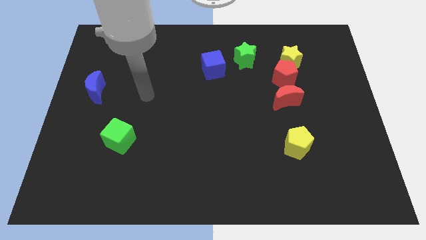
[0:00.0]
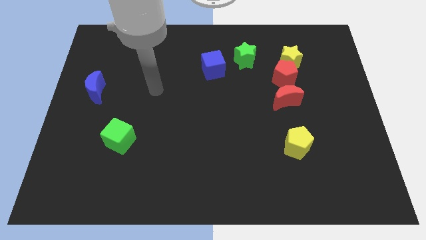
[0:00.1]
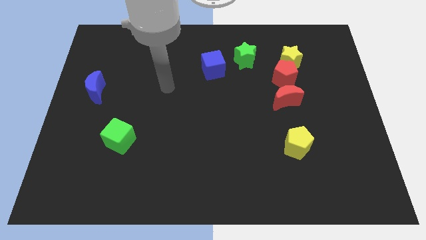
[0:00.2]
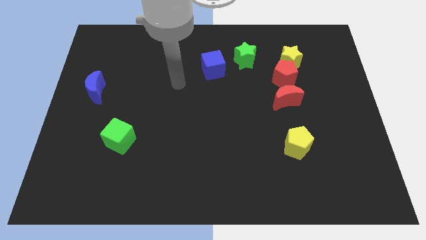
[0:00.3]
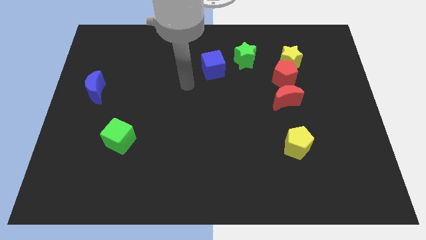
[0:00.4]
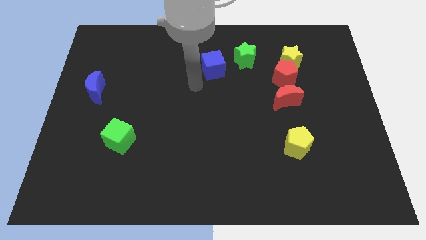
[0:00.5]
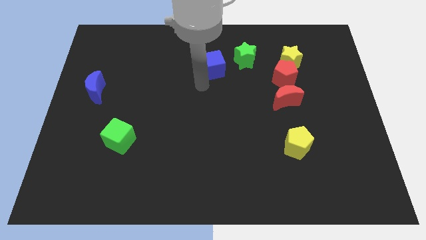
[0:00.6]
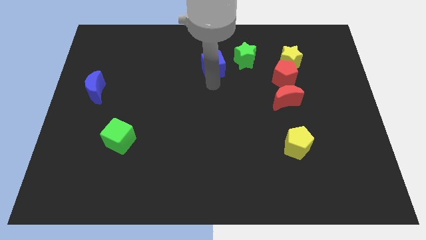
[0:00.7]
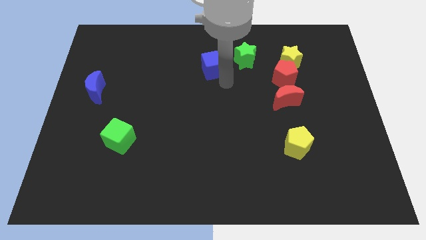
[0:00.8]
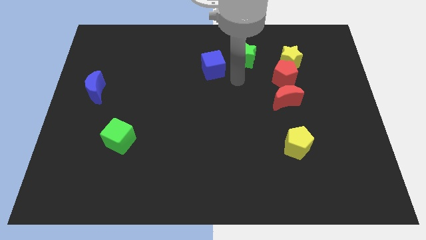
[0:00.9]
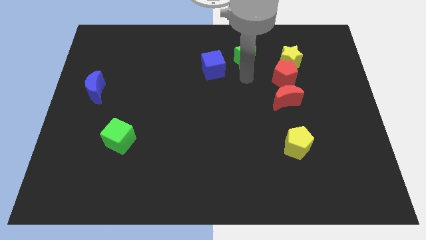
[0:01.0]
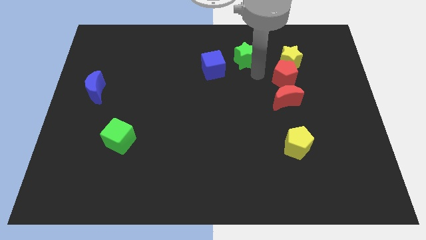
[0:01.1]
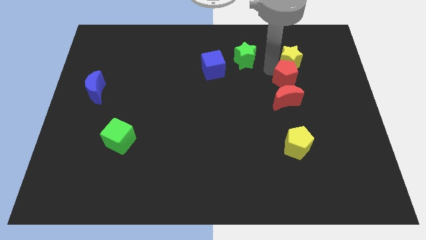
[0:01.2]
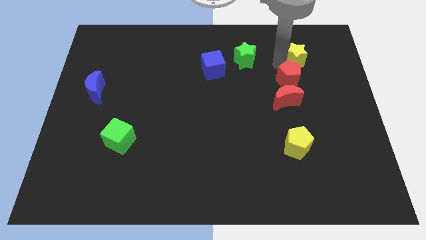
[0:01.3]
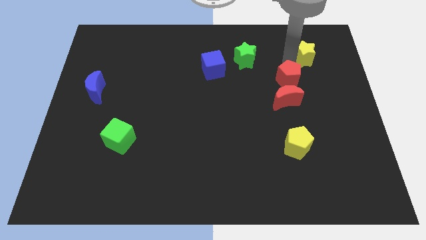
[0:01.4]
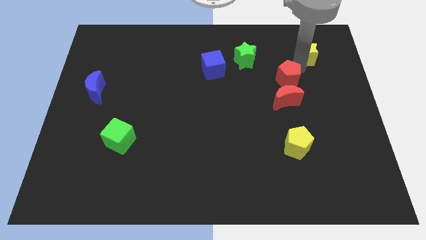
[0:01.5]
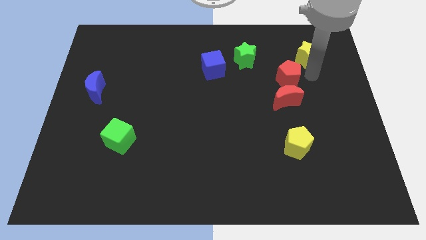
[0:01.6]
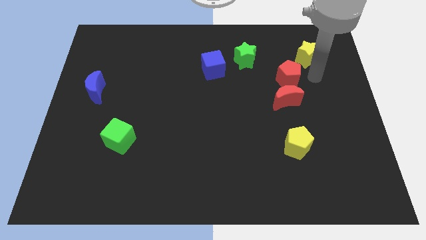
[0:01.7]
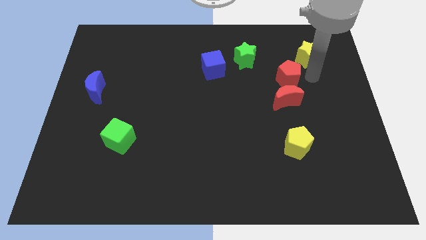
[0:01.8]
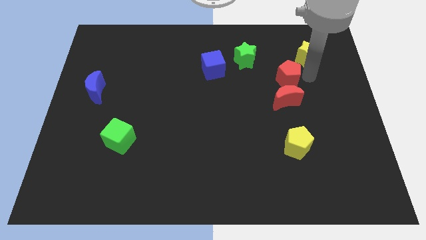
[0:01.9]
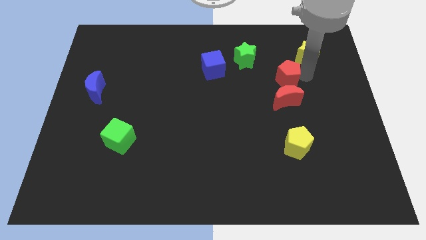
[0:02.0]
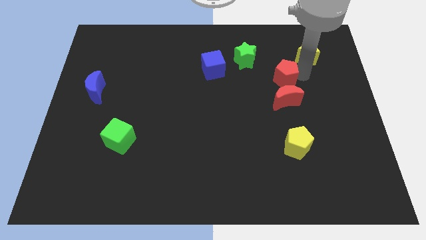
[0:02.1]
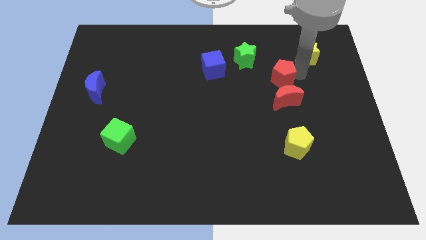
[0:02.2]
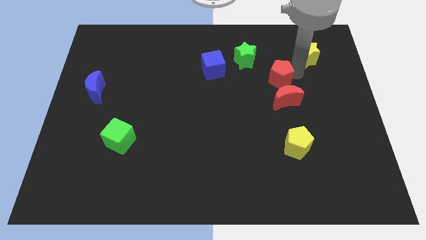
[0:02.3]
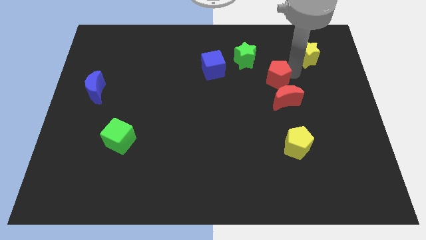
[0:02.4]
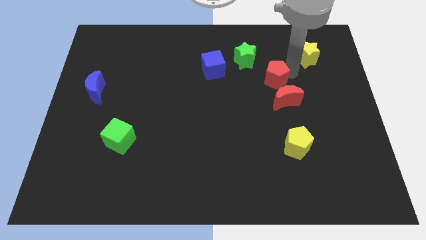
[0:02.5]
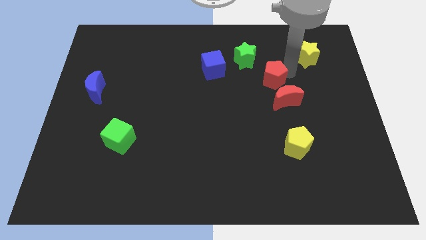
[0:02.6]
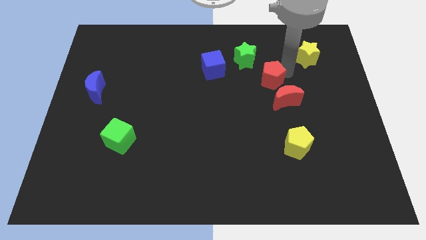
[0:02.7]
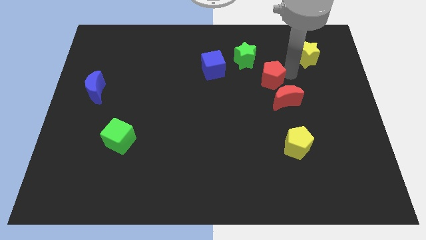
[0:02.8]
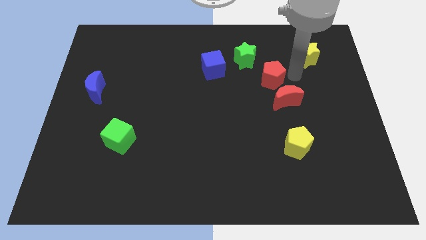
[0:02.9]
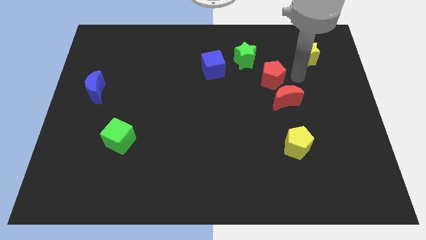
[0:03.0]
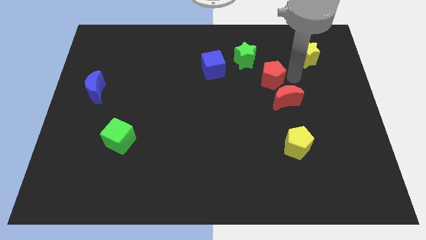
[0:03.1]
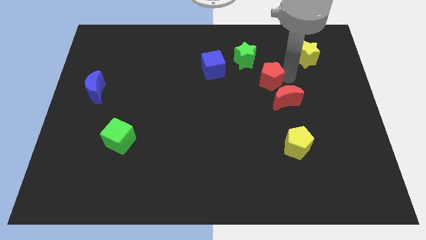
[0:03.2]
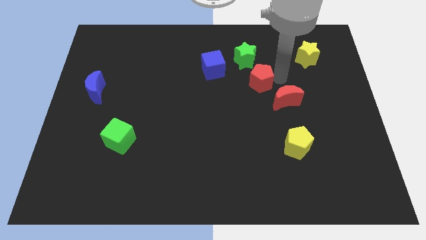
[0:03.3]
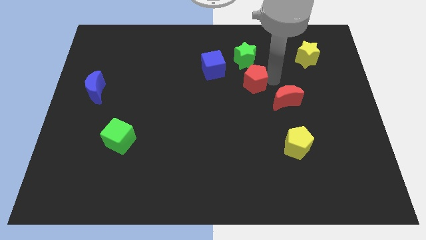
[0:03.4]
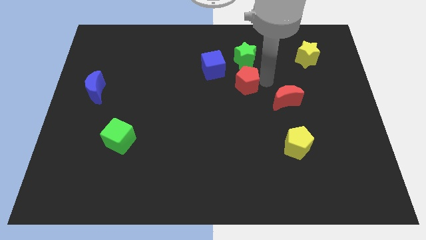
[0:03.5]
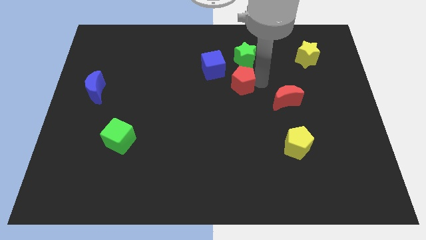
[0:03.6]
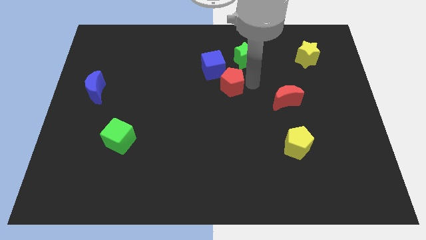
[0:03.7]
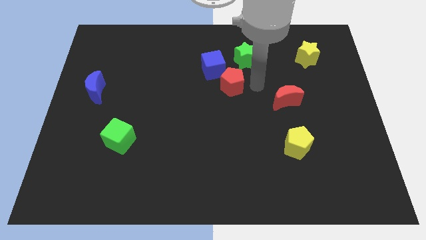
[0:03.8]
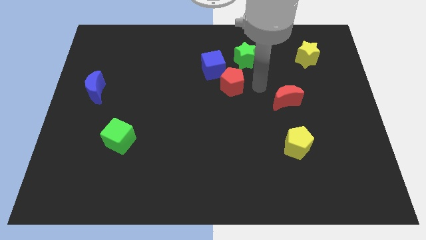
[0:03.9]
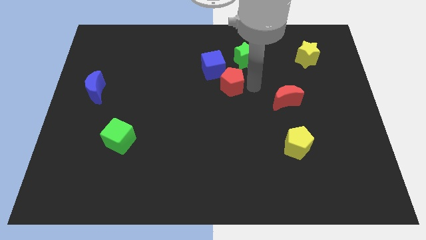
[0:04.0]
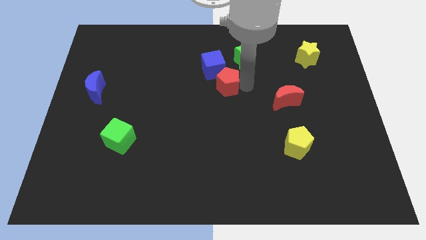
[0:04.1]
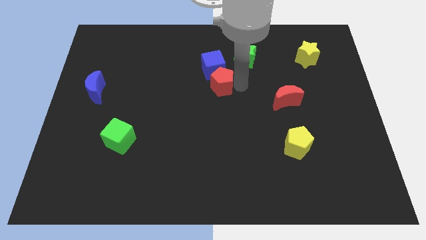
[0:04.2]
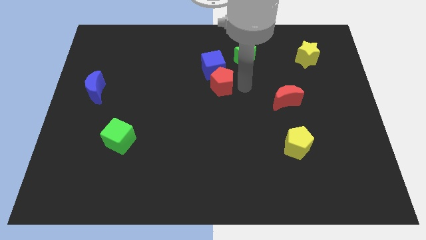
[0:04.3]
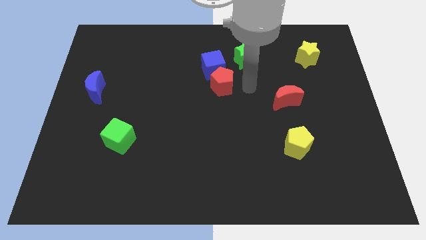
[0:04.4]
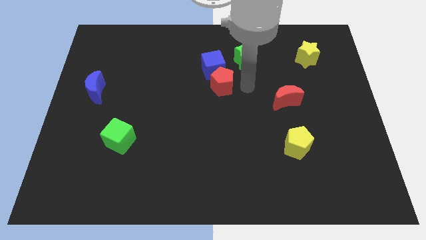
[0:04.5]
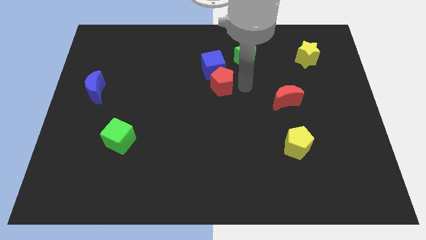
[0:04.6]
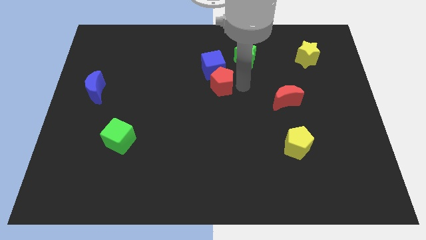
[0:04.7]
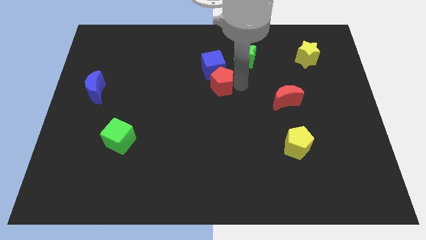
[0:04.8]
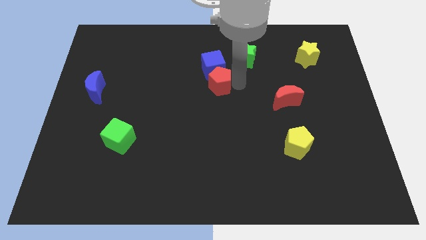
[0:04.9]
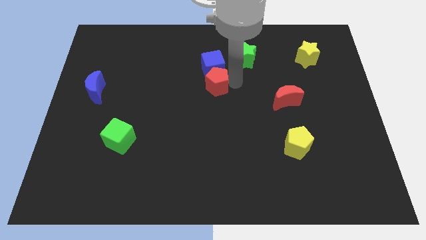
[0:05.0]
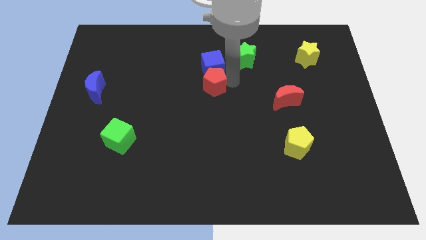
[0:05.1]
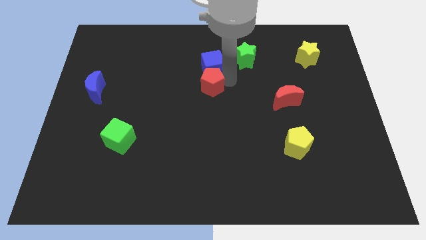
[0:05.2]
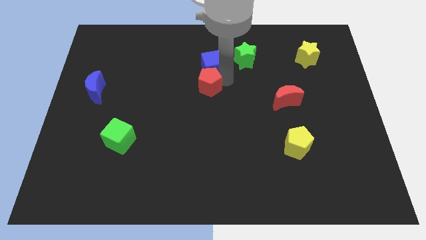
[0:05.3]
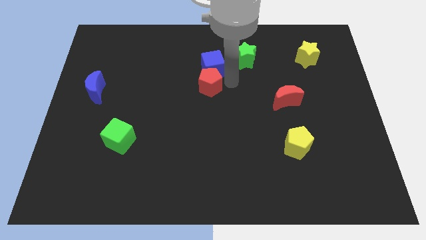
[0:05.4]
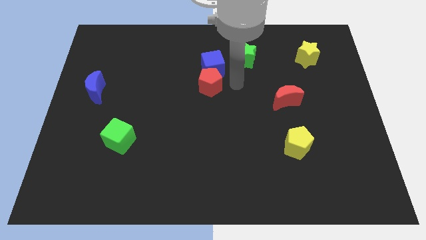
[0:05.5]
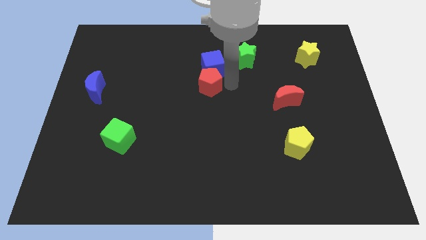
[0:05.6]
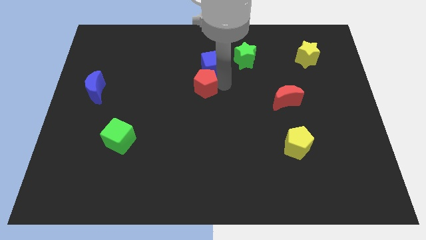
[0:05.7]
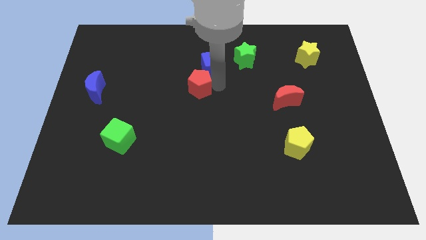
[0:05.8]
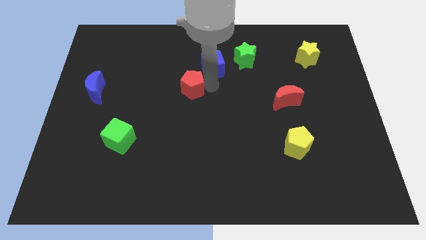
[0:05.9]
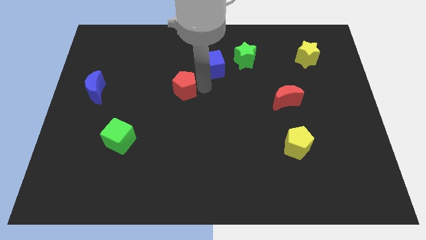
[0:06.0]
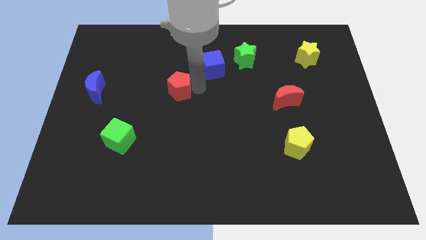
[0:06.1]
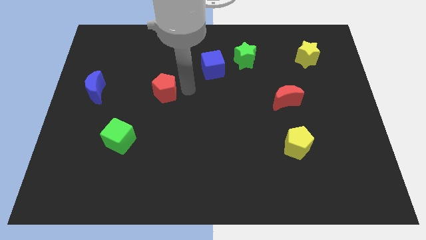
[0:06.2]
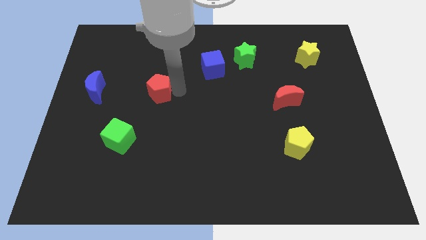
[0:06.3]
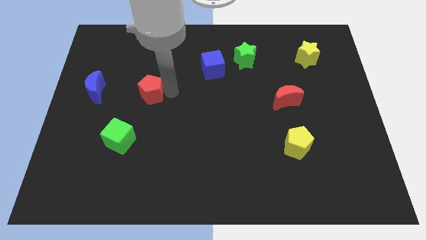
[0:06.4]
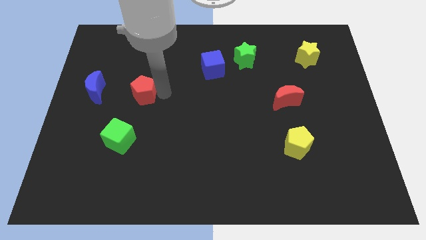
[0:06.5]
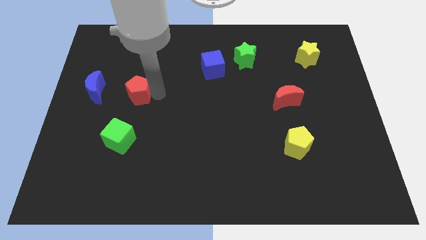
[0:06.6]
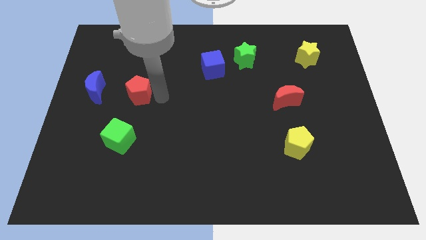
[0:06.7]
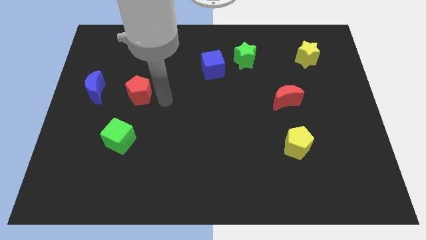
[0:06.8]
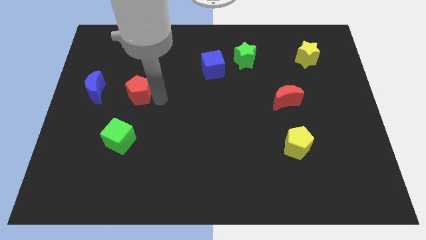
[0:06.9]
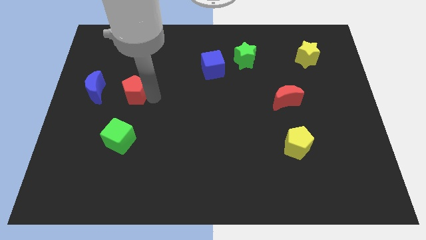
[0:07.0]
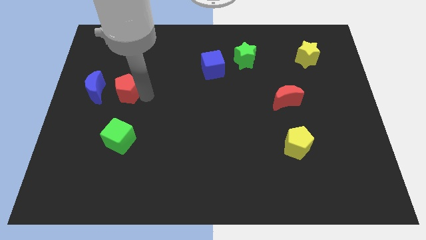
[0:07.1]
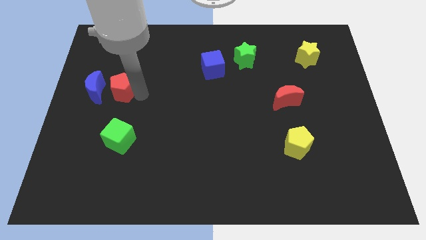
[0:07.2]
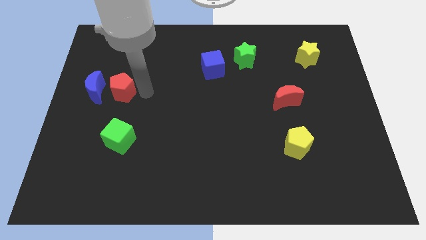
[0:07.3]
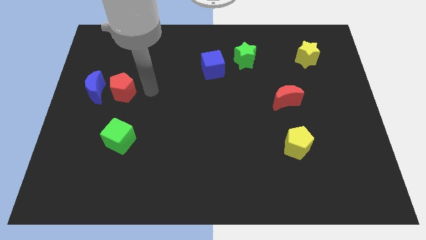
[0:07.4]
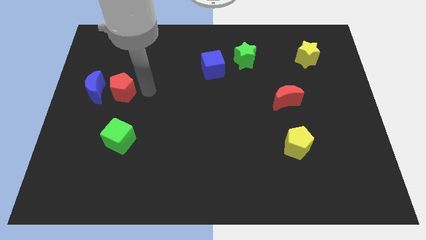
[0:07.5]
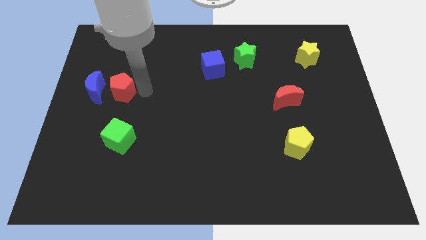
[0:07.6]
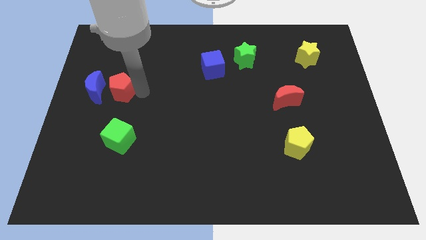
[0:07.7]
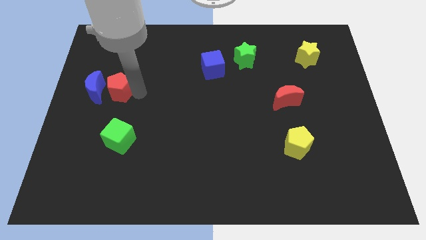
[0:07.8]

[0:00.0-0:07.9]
push the red pentagon next to the blue moon
